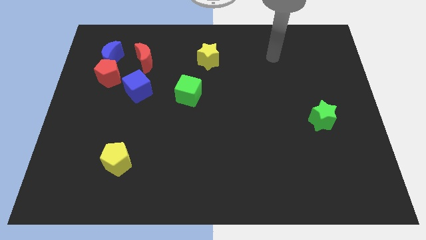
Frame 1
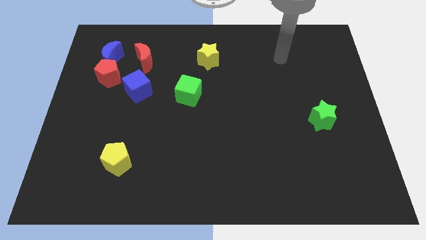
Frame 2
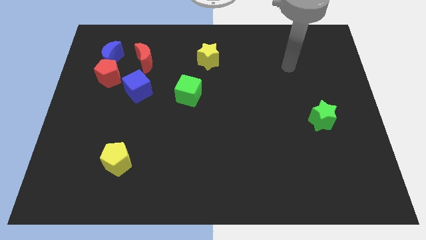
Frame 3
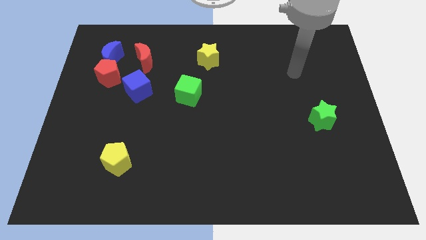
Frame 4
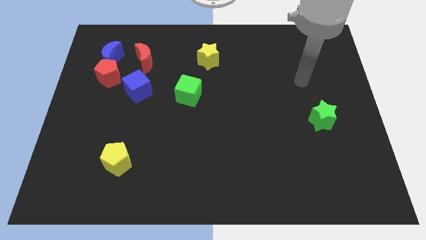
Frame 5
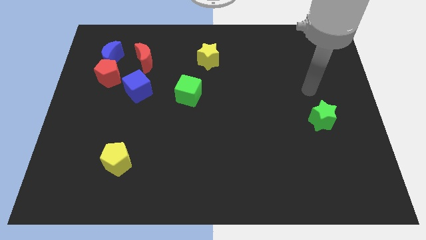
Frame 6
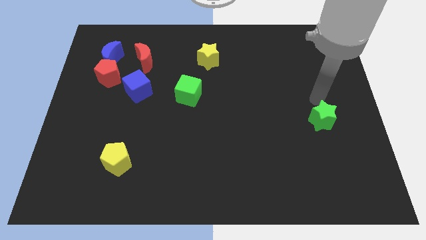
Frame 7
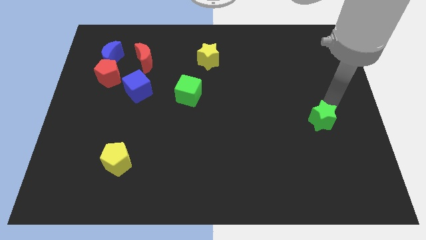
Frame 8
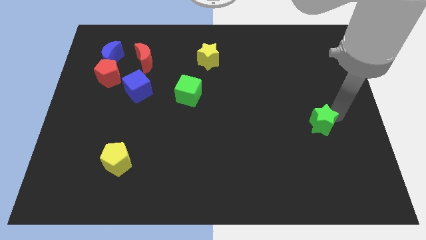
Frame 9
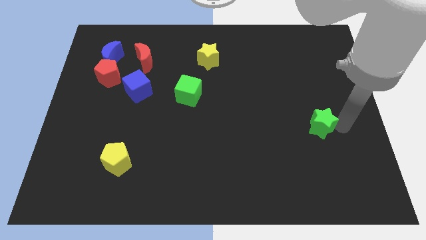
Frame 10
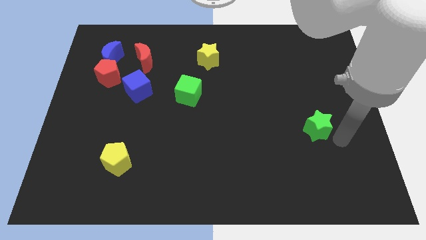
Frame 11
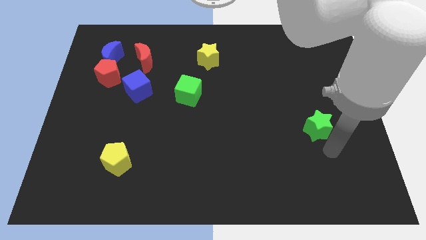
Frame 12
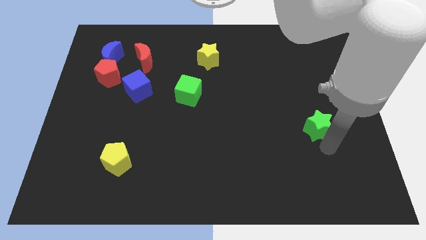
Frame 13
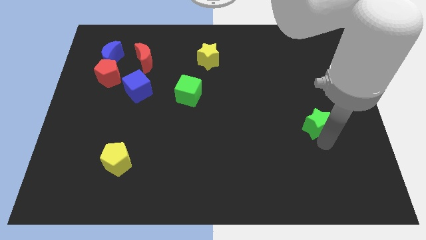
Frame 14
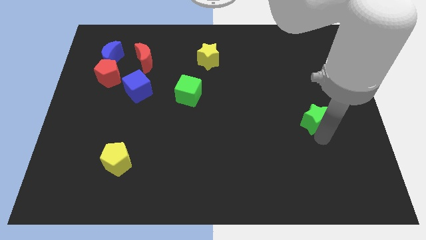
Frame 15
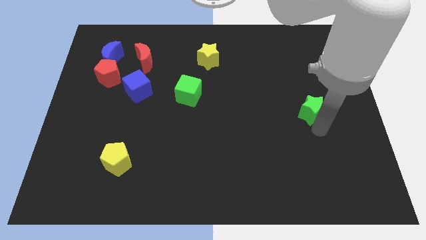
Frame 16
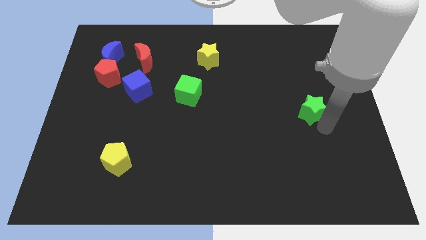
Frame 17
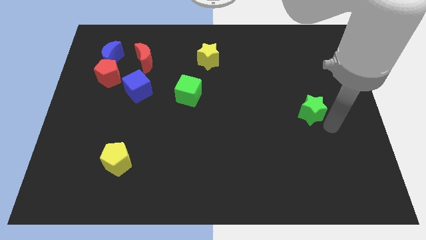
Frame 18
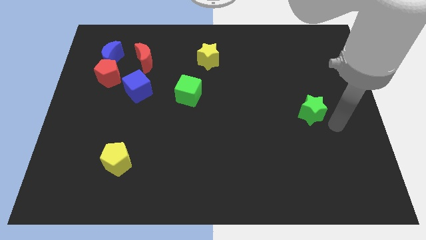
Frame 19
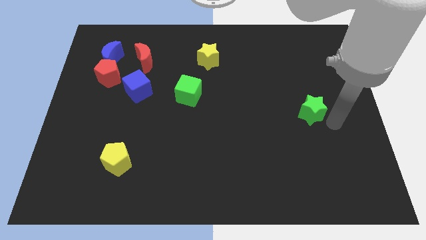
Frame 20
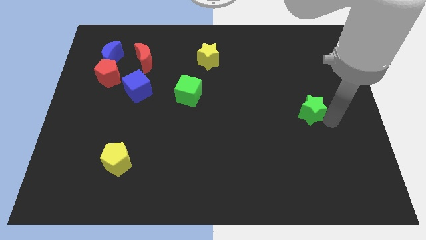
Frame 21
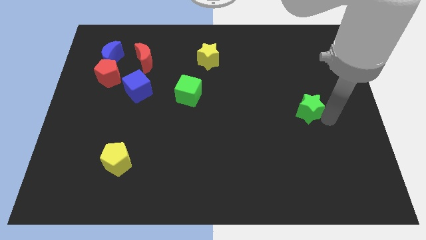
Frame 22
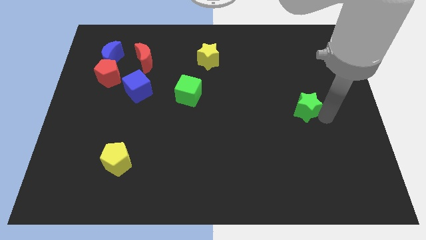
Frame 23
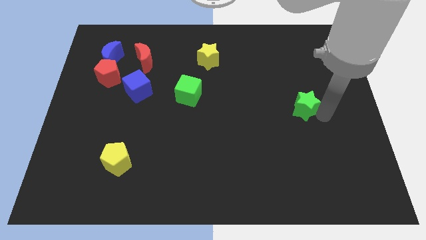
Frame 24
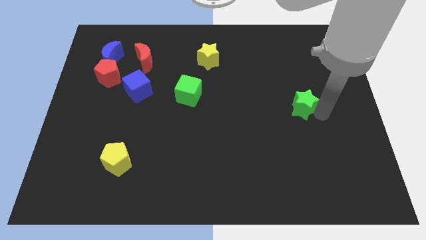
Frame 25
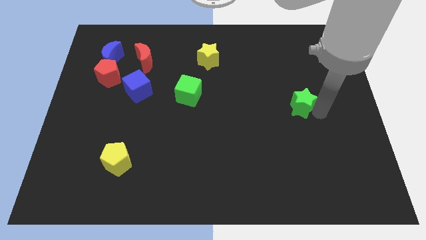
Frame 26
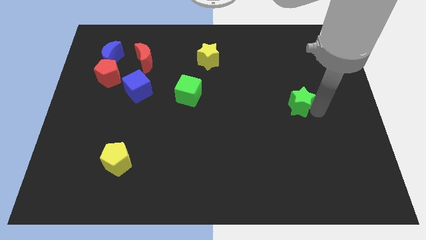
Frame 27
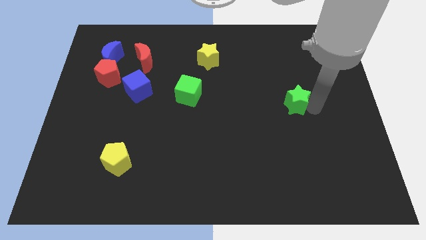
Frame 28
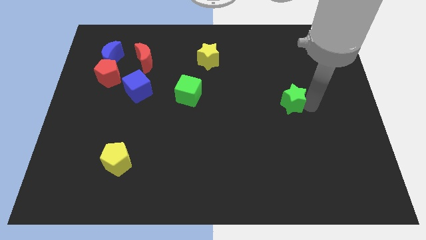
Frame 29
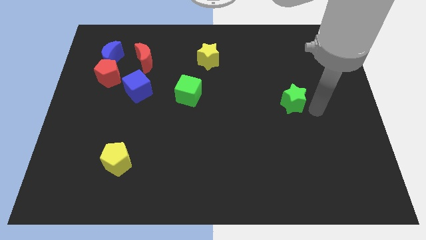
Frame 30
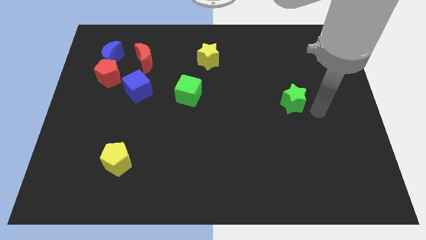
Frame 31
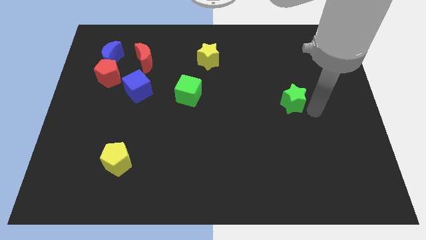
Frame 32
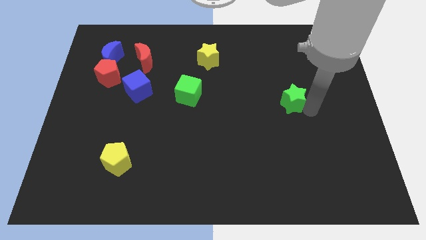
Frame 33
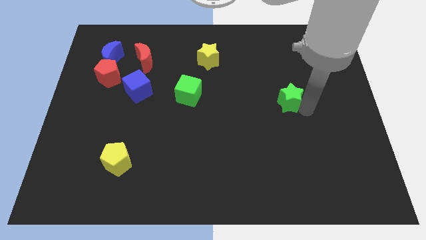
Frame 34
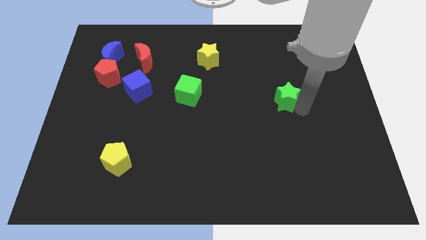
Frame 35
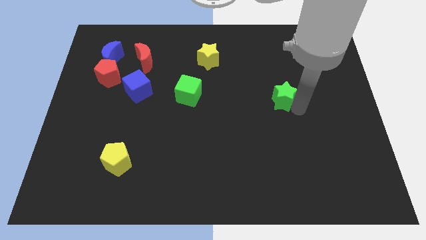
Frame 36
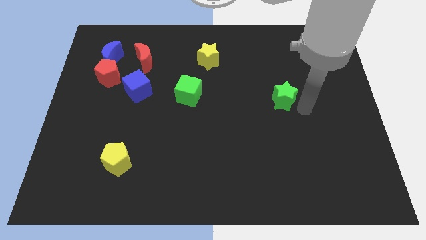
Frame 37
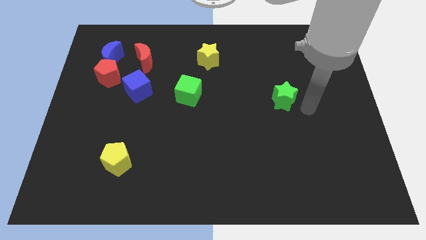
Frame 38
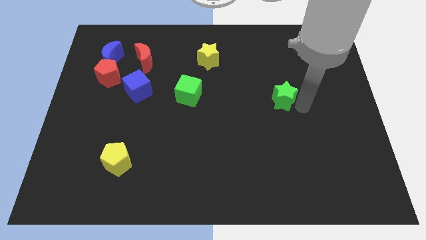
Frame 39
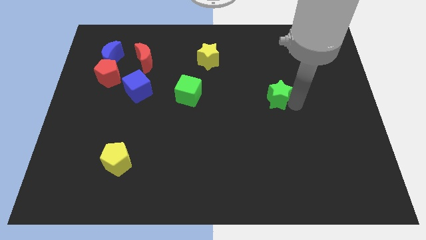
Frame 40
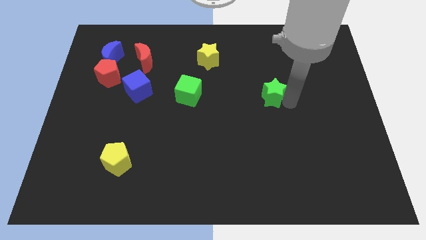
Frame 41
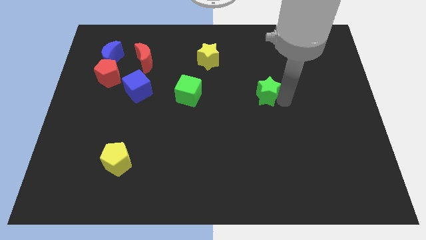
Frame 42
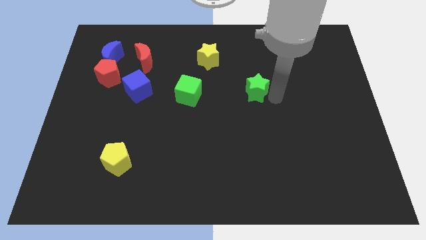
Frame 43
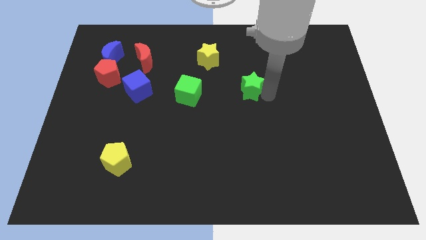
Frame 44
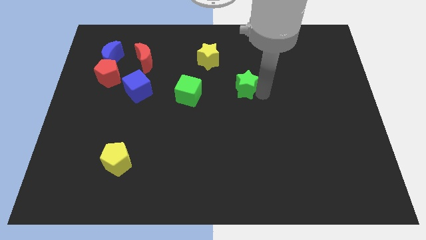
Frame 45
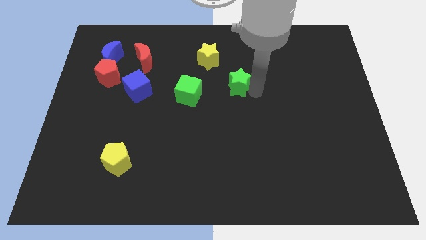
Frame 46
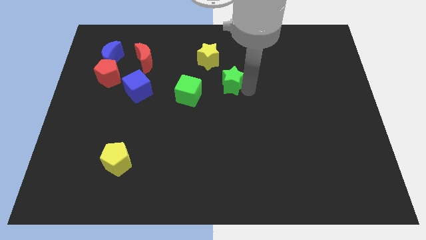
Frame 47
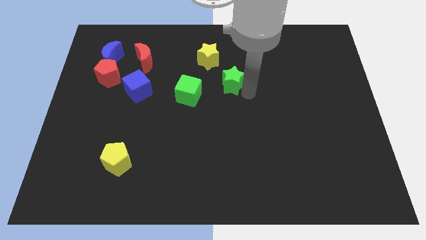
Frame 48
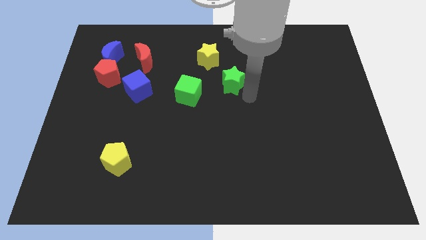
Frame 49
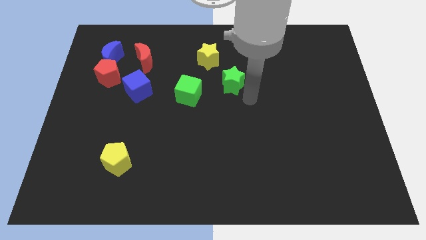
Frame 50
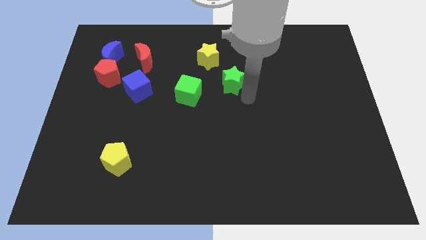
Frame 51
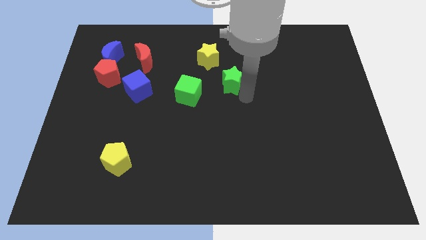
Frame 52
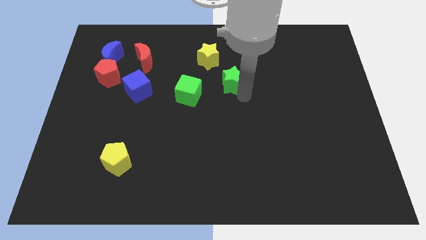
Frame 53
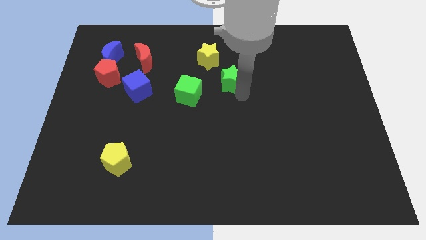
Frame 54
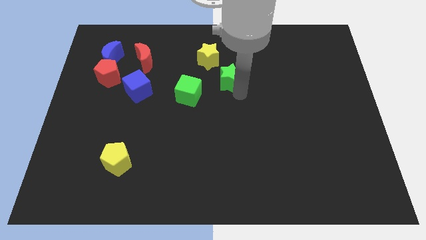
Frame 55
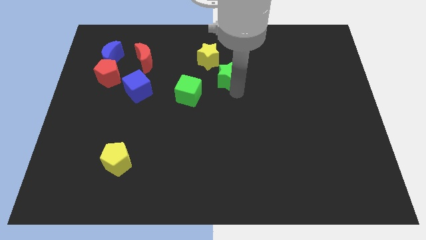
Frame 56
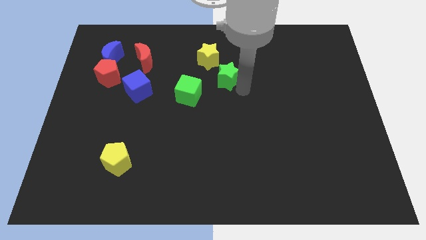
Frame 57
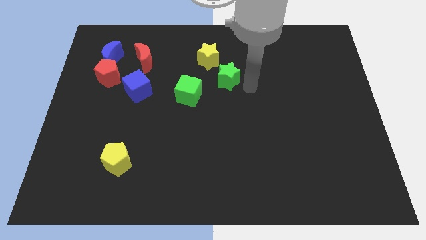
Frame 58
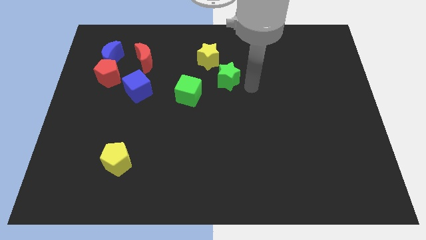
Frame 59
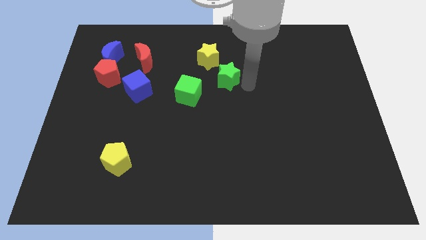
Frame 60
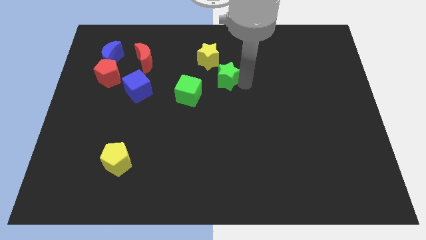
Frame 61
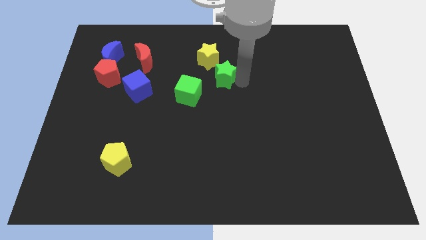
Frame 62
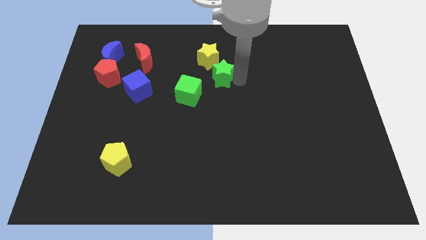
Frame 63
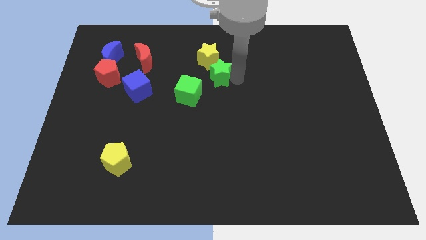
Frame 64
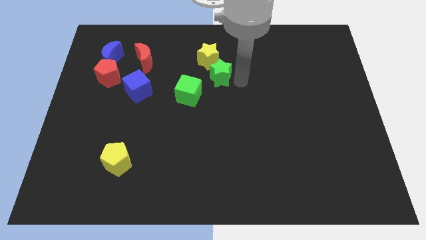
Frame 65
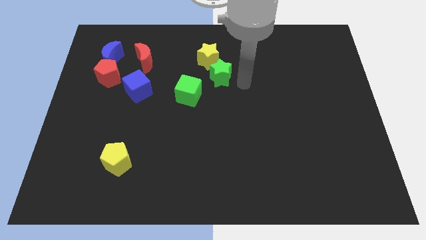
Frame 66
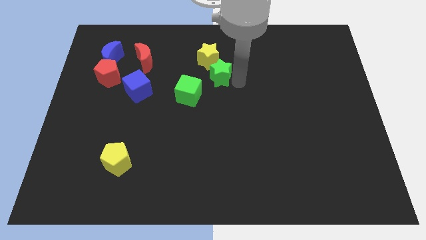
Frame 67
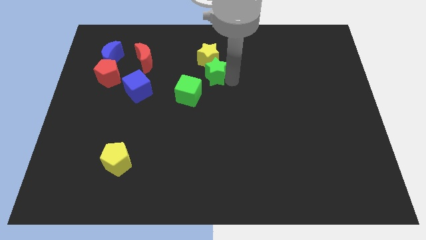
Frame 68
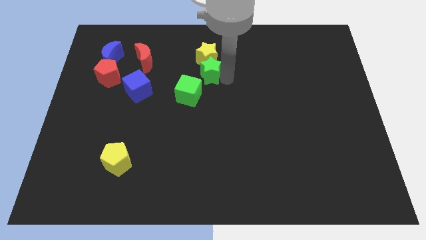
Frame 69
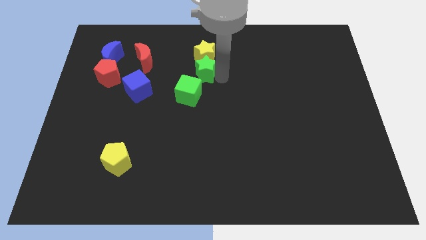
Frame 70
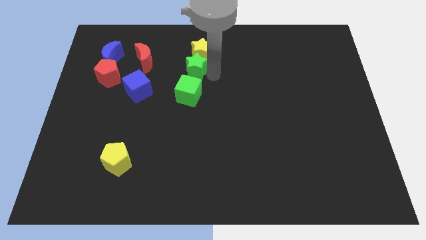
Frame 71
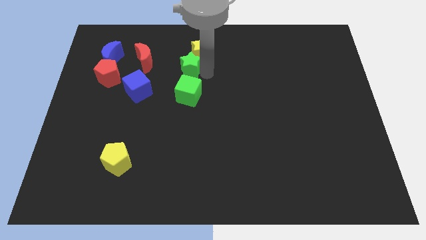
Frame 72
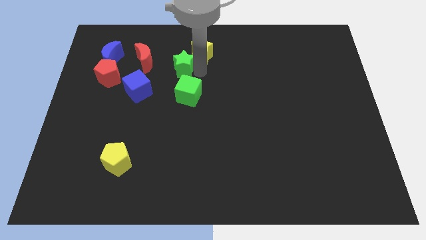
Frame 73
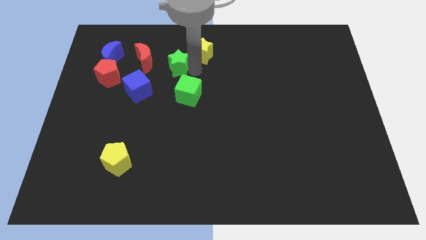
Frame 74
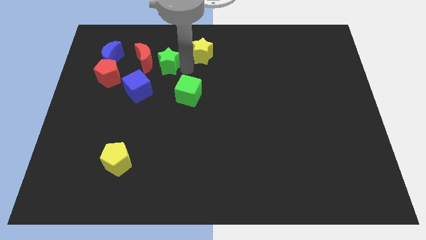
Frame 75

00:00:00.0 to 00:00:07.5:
put the green star to the red moon
